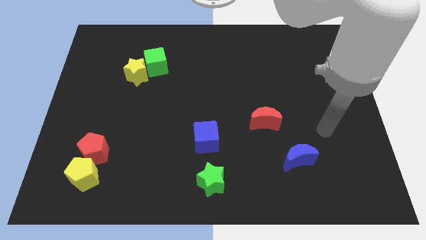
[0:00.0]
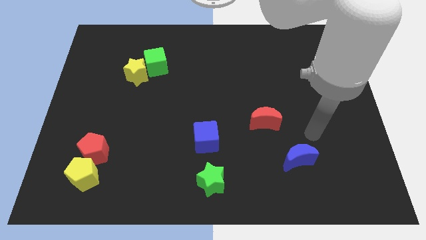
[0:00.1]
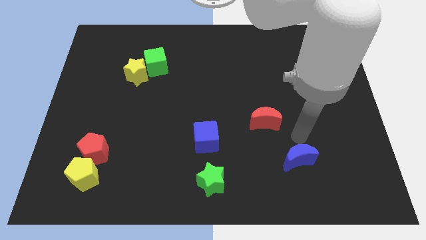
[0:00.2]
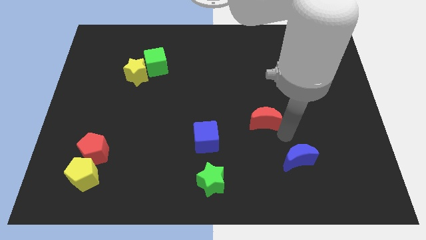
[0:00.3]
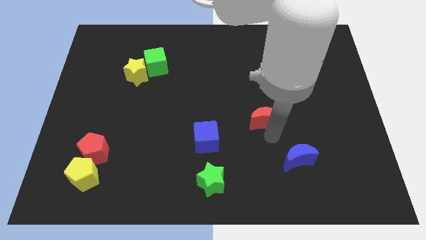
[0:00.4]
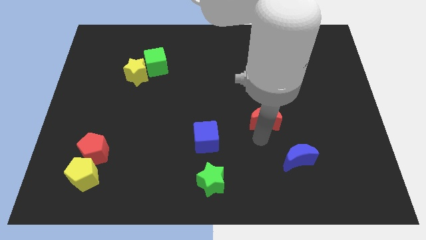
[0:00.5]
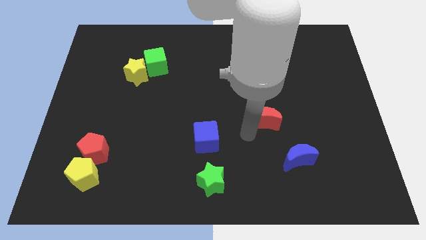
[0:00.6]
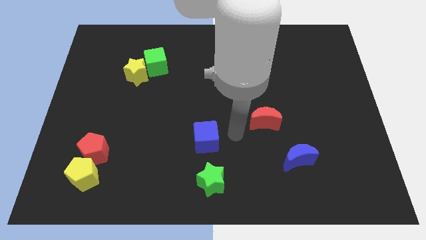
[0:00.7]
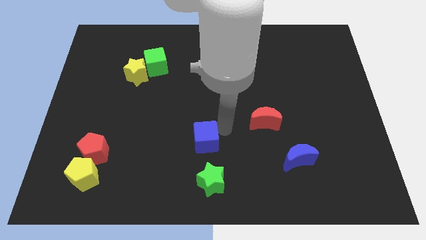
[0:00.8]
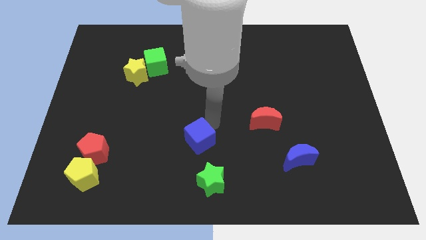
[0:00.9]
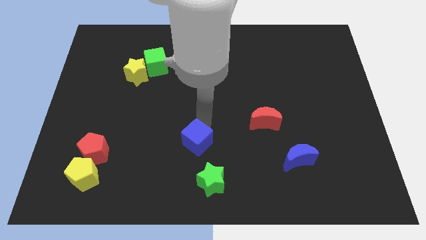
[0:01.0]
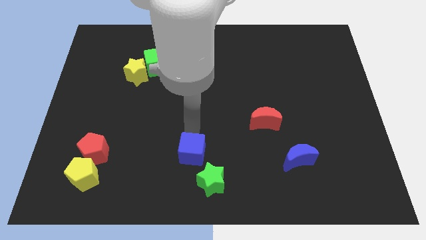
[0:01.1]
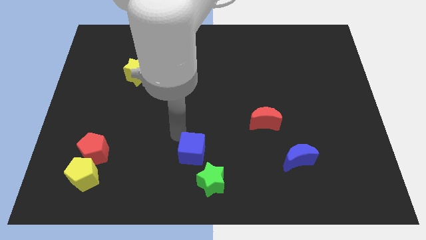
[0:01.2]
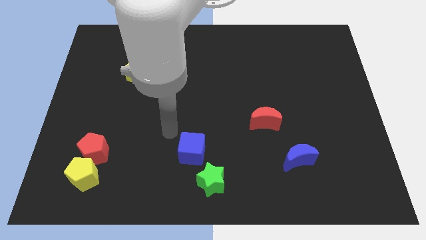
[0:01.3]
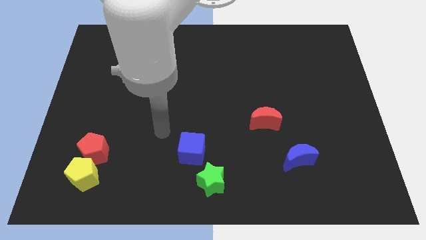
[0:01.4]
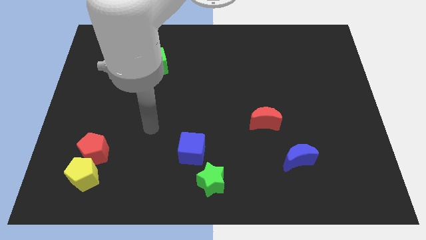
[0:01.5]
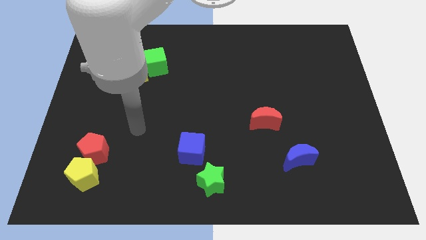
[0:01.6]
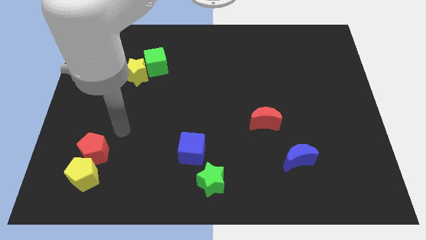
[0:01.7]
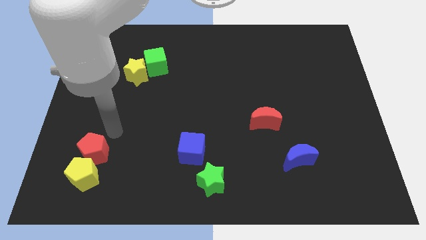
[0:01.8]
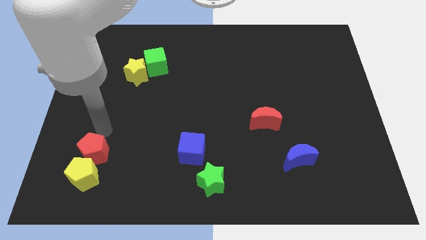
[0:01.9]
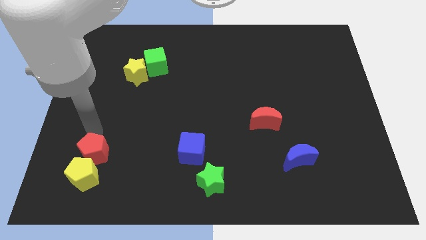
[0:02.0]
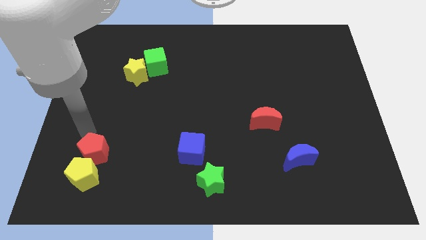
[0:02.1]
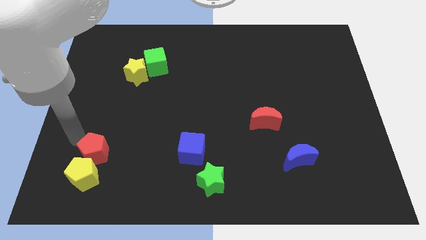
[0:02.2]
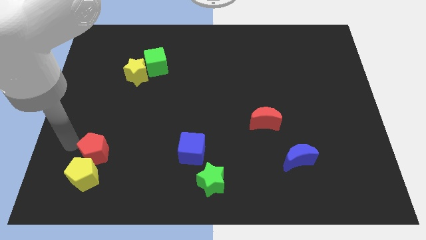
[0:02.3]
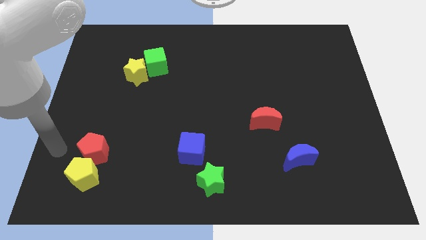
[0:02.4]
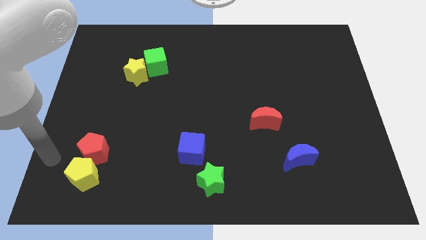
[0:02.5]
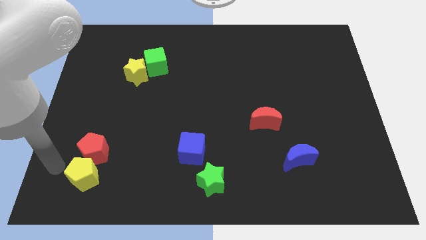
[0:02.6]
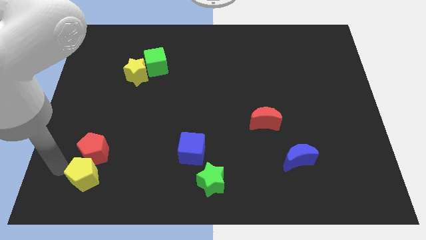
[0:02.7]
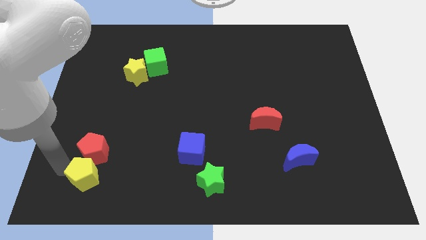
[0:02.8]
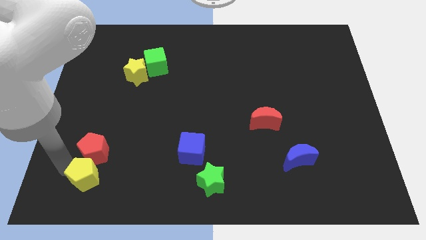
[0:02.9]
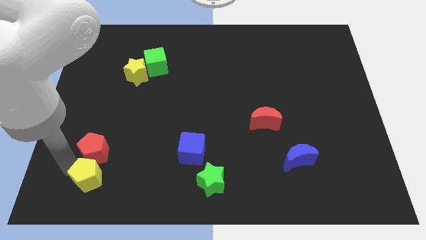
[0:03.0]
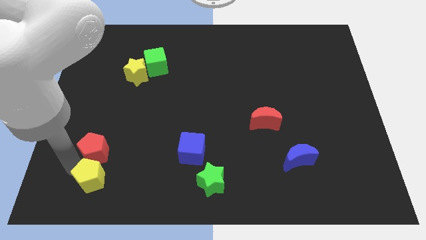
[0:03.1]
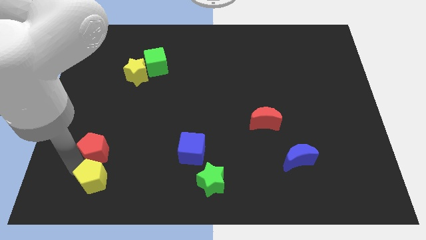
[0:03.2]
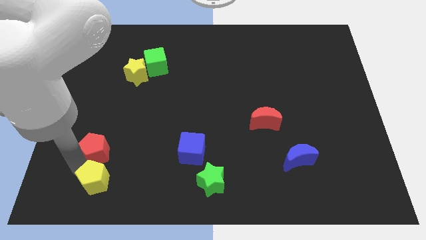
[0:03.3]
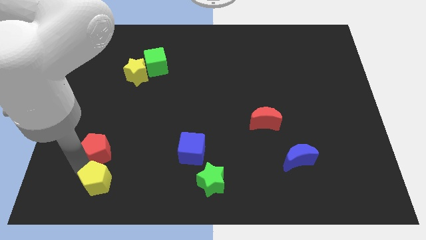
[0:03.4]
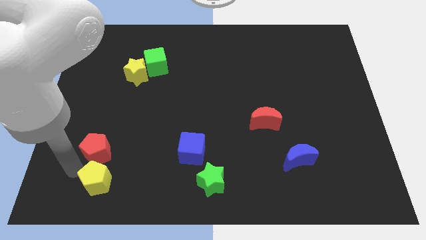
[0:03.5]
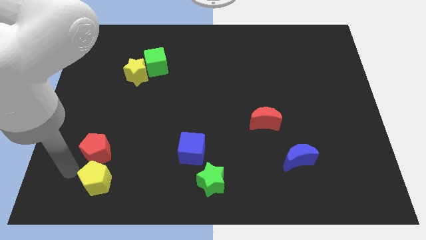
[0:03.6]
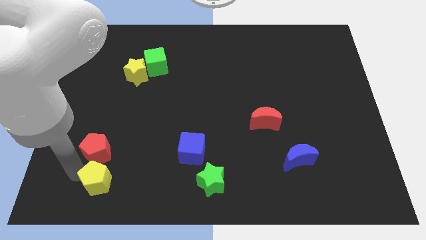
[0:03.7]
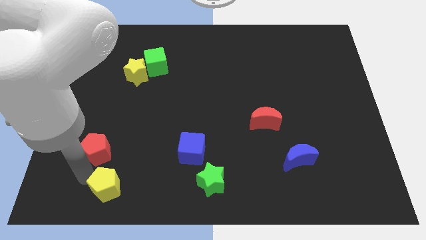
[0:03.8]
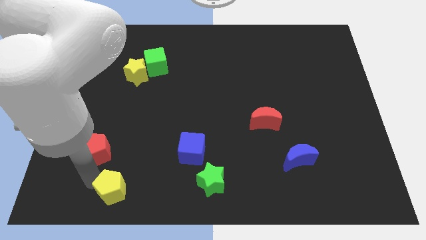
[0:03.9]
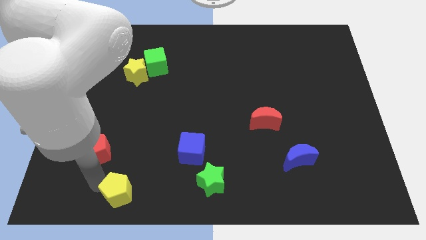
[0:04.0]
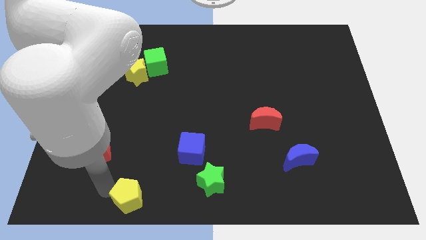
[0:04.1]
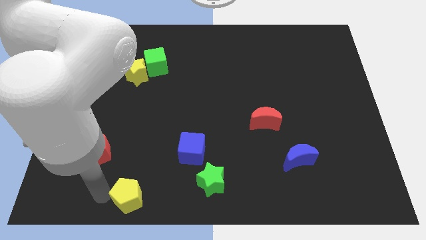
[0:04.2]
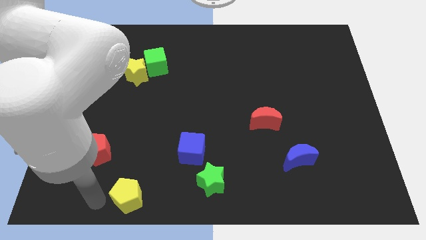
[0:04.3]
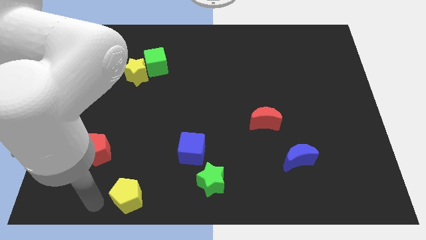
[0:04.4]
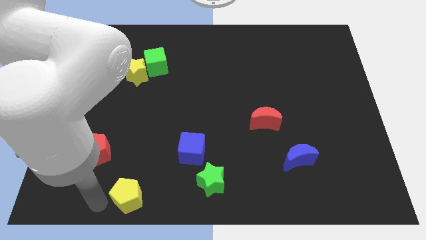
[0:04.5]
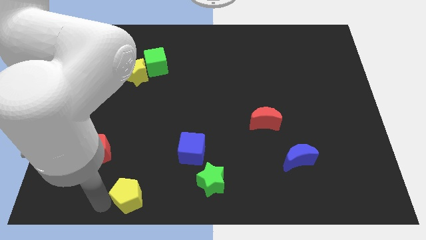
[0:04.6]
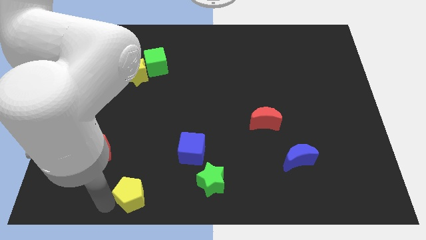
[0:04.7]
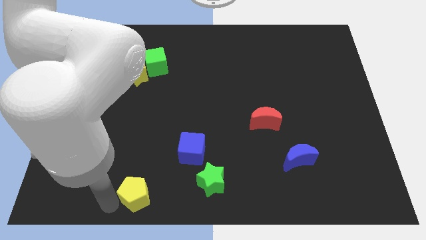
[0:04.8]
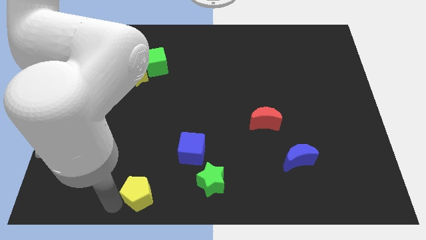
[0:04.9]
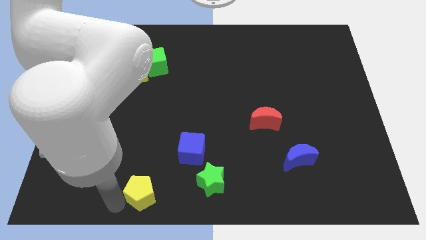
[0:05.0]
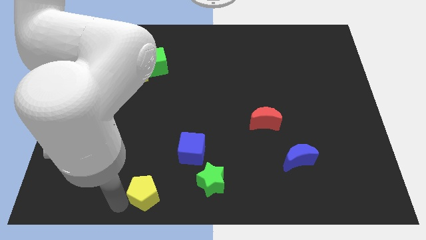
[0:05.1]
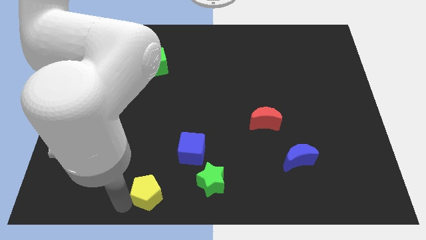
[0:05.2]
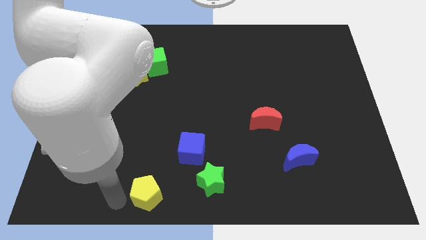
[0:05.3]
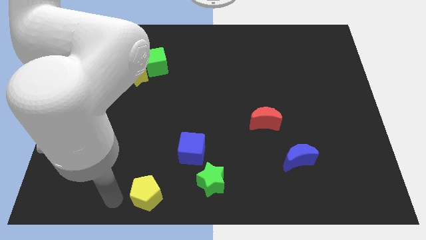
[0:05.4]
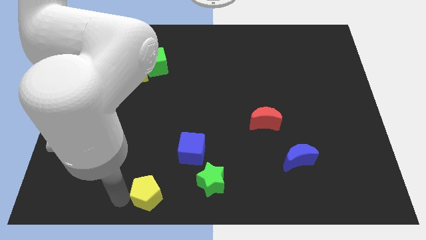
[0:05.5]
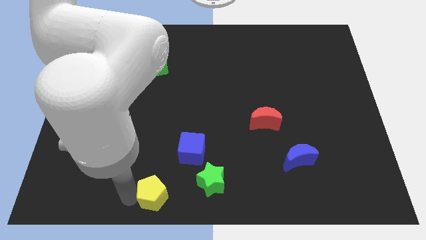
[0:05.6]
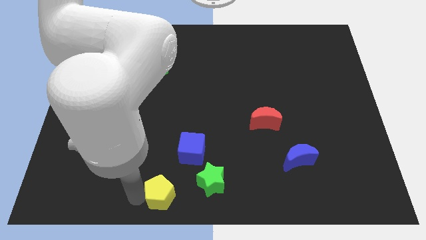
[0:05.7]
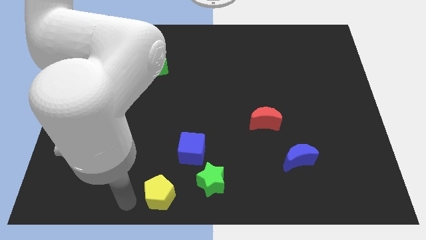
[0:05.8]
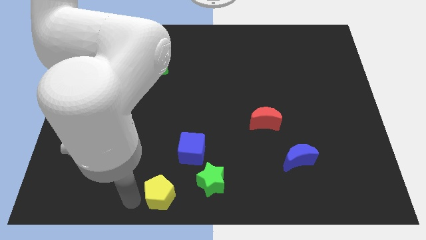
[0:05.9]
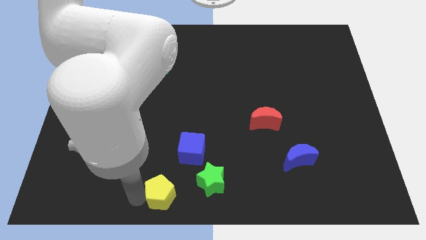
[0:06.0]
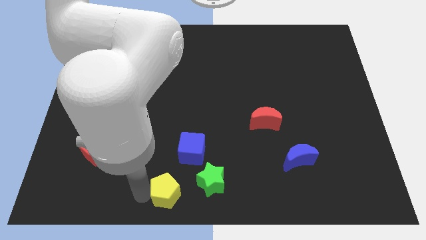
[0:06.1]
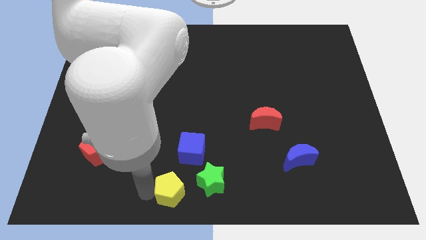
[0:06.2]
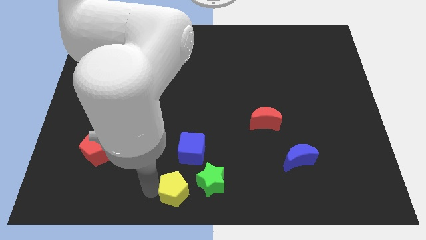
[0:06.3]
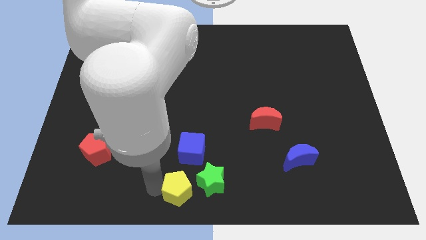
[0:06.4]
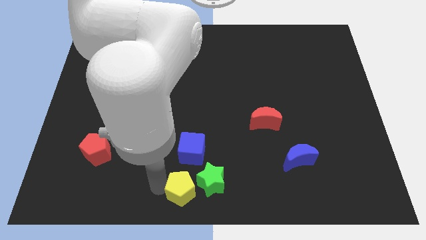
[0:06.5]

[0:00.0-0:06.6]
slide the yellow pentagon towards the green star

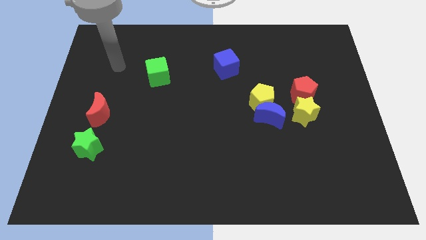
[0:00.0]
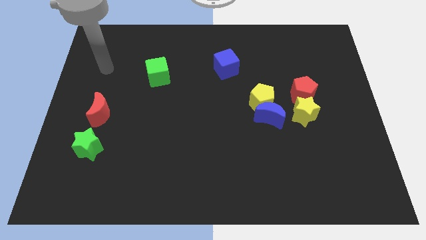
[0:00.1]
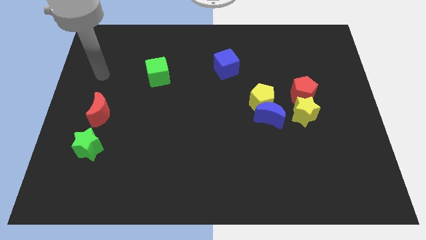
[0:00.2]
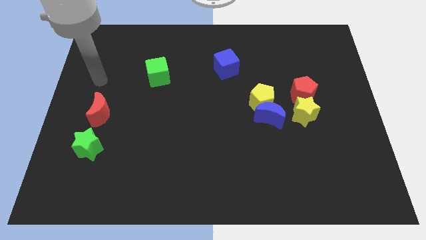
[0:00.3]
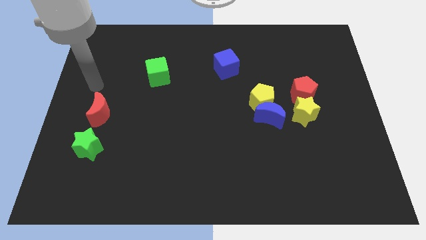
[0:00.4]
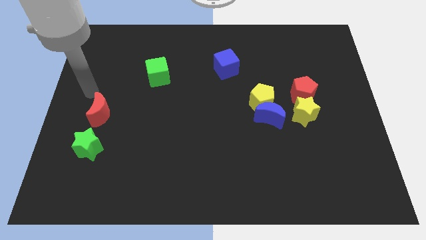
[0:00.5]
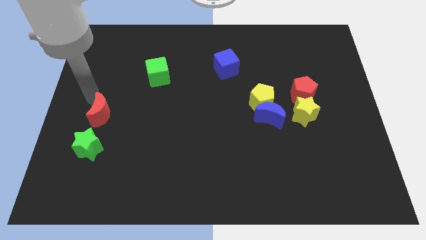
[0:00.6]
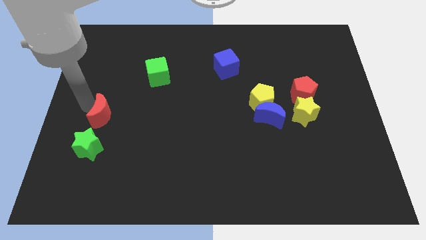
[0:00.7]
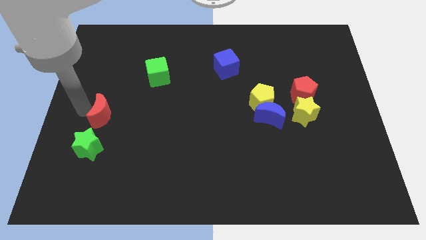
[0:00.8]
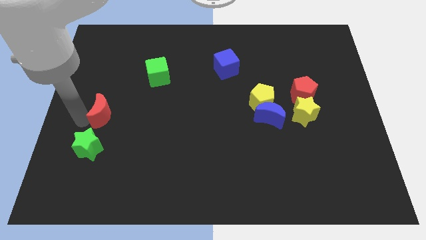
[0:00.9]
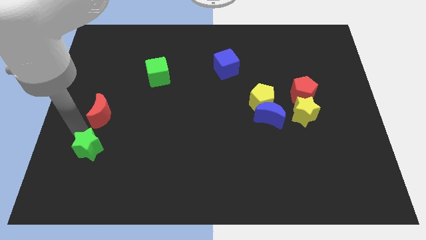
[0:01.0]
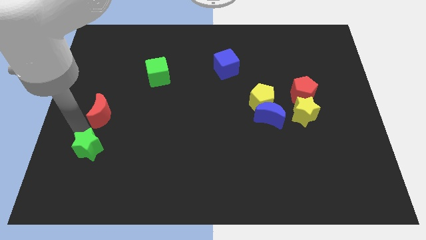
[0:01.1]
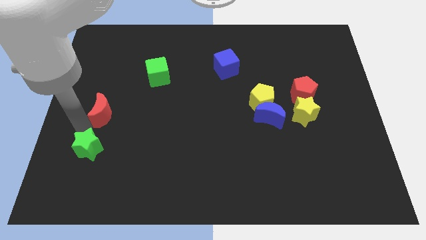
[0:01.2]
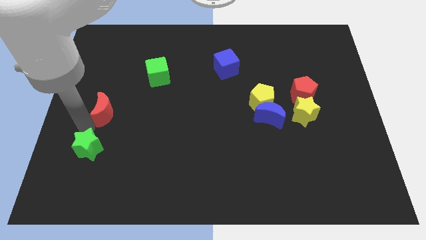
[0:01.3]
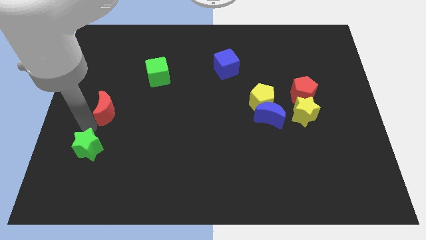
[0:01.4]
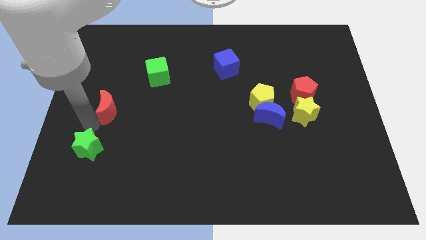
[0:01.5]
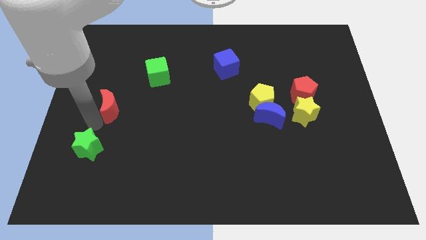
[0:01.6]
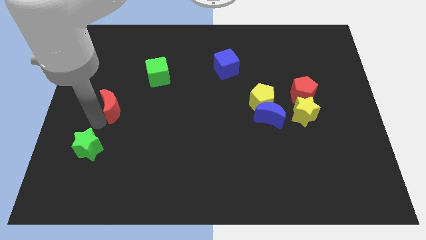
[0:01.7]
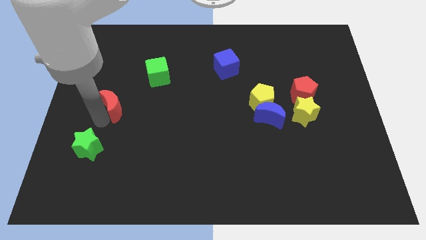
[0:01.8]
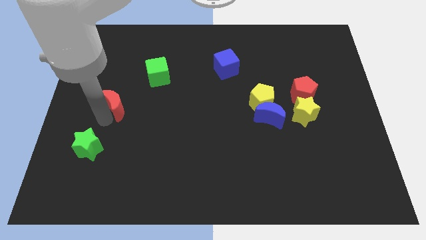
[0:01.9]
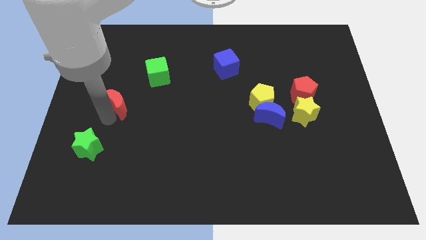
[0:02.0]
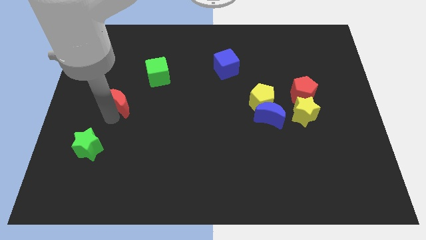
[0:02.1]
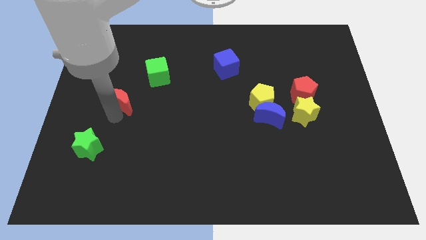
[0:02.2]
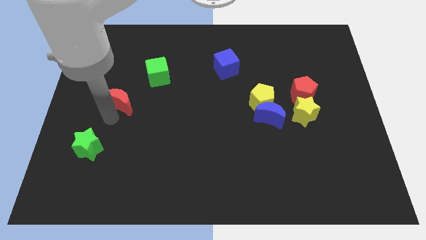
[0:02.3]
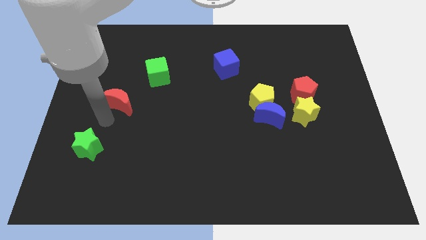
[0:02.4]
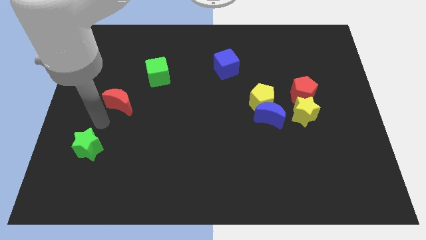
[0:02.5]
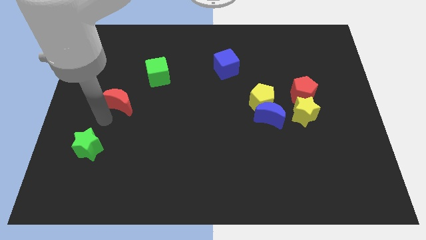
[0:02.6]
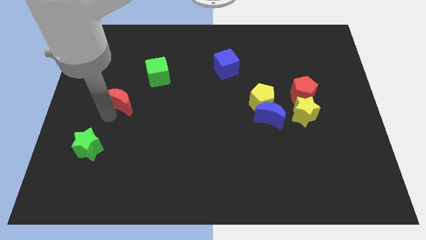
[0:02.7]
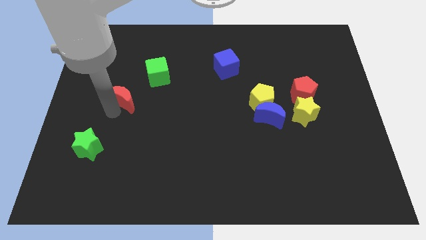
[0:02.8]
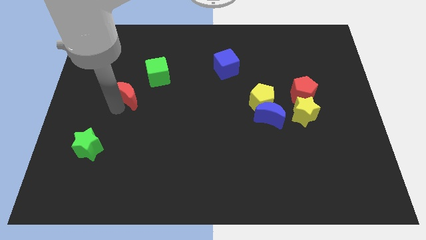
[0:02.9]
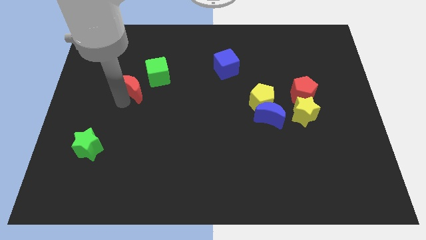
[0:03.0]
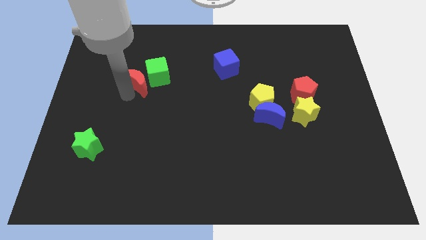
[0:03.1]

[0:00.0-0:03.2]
slide the red moon to the green cube
